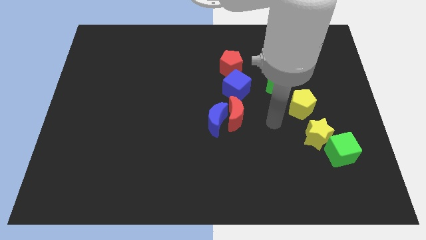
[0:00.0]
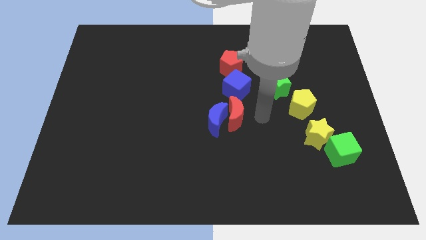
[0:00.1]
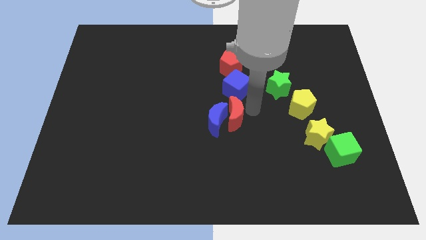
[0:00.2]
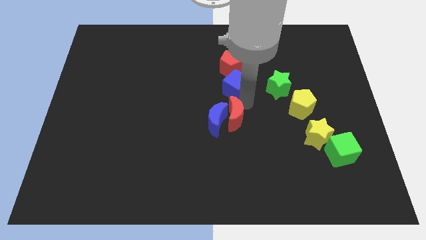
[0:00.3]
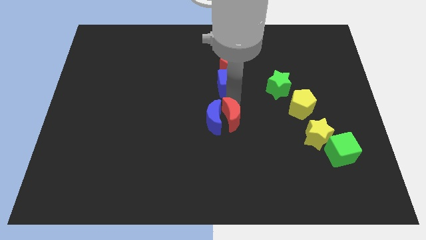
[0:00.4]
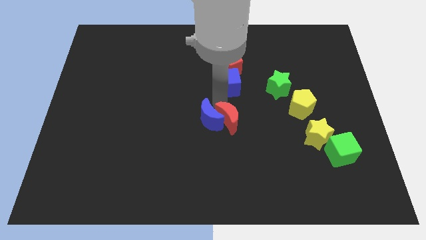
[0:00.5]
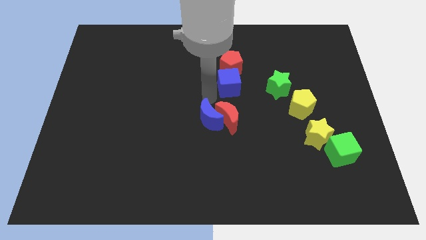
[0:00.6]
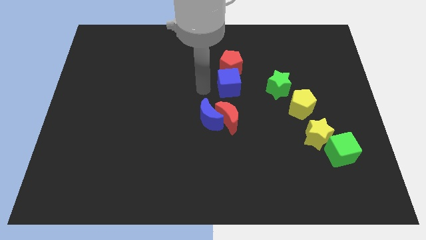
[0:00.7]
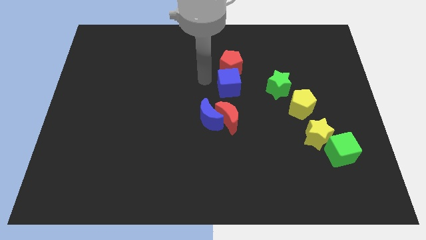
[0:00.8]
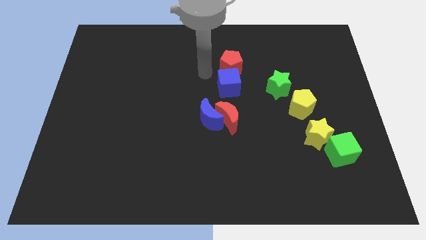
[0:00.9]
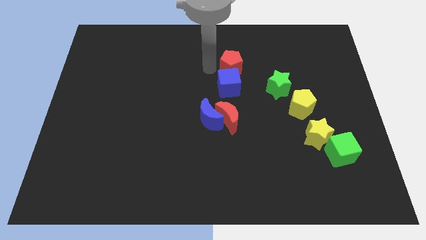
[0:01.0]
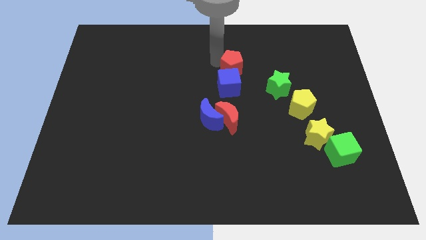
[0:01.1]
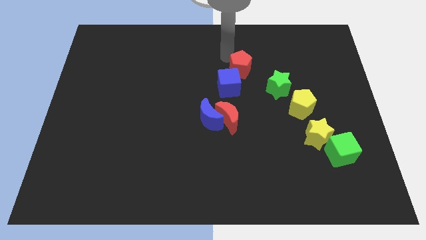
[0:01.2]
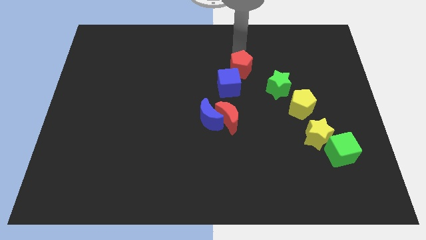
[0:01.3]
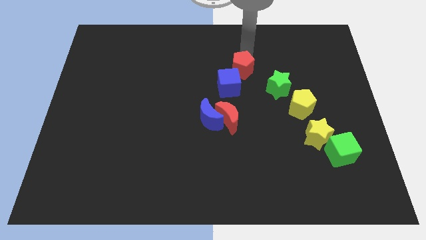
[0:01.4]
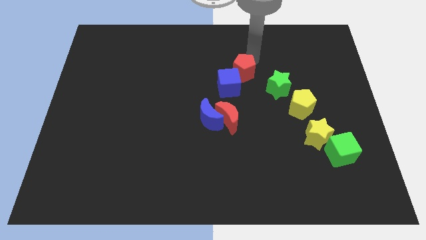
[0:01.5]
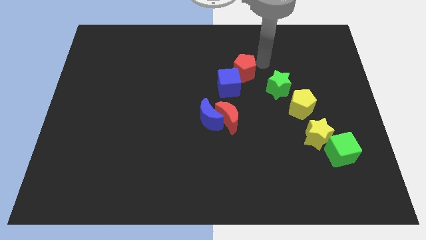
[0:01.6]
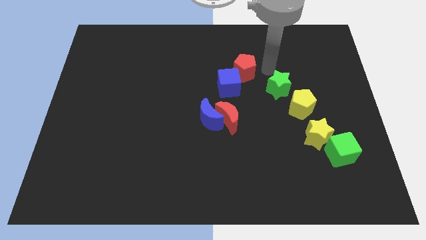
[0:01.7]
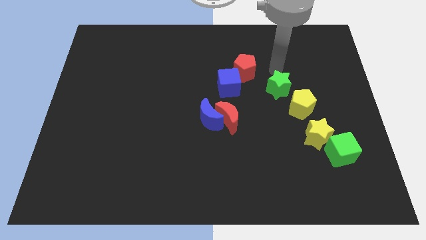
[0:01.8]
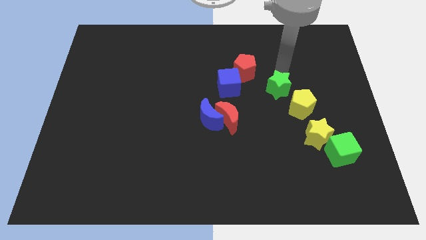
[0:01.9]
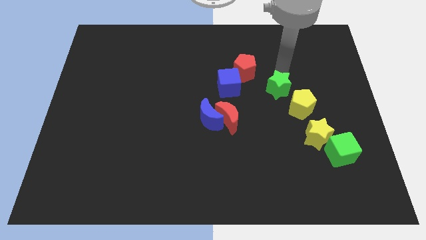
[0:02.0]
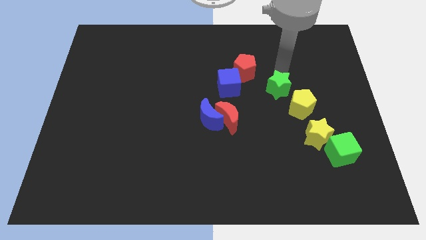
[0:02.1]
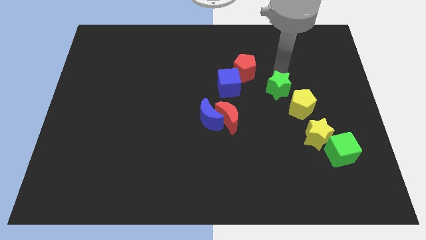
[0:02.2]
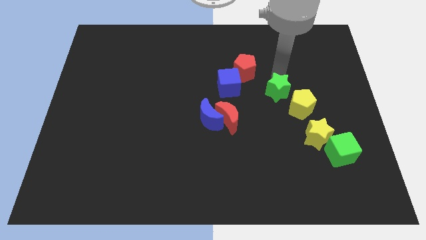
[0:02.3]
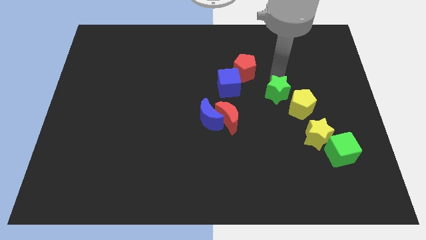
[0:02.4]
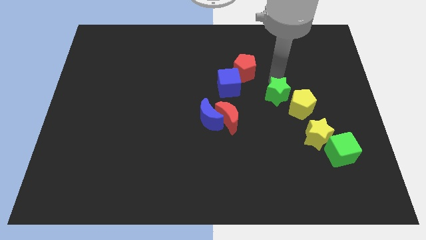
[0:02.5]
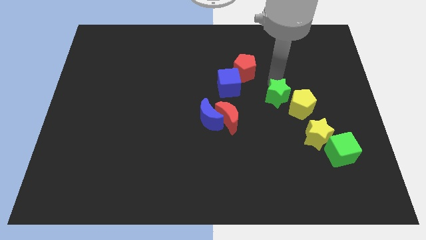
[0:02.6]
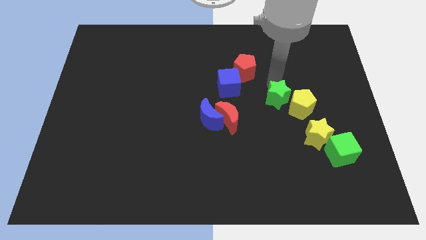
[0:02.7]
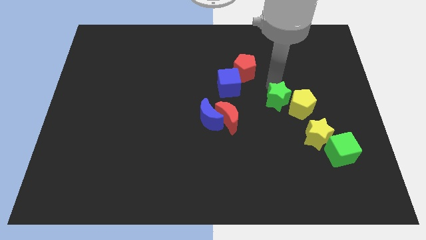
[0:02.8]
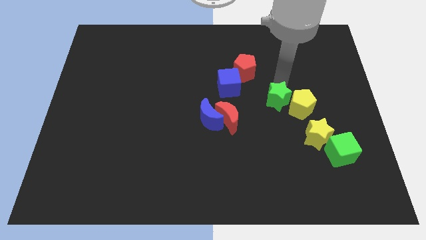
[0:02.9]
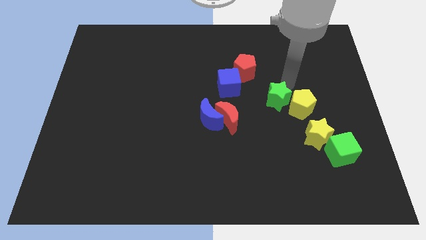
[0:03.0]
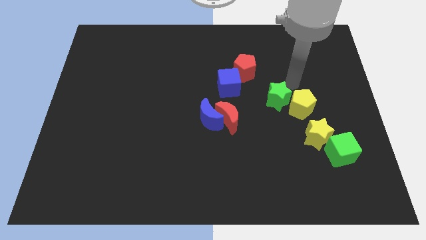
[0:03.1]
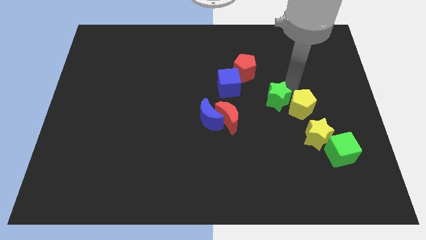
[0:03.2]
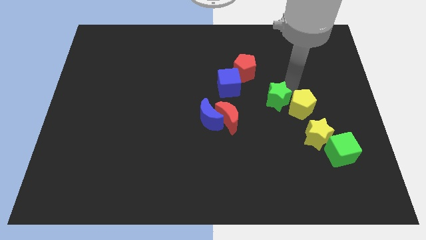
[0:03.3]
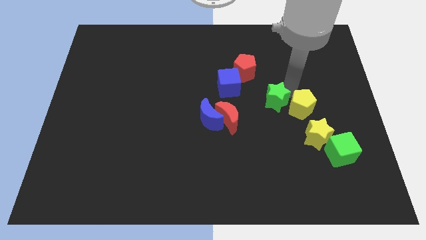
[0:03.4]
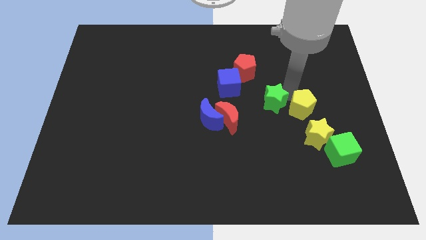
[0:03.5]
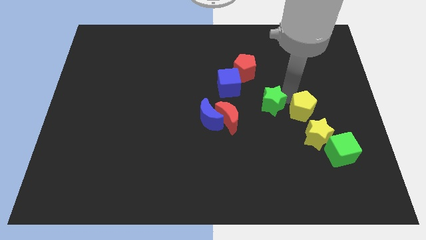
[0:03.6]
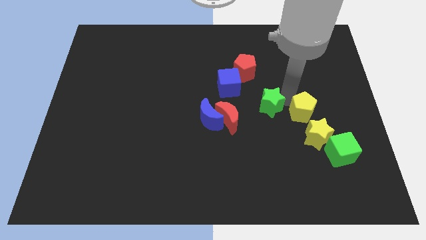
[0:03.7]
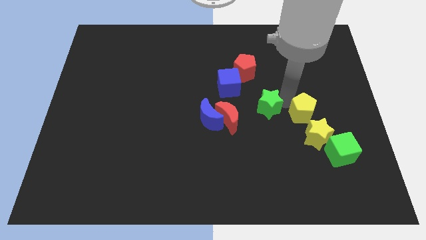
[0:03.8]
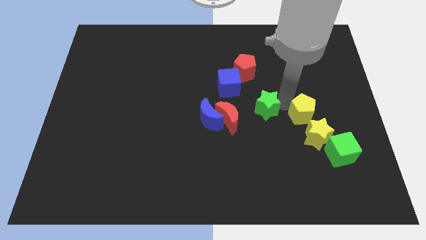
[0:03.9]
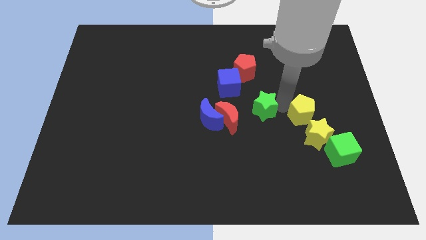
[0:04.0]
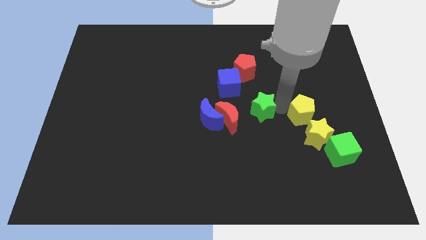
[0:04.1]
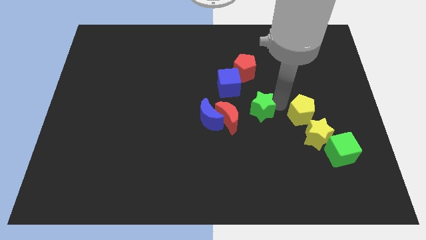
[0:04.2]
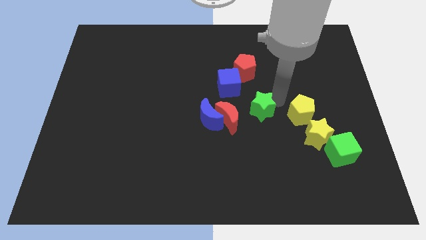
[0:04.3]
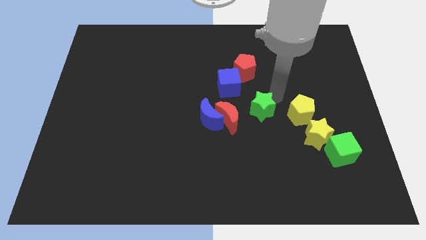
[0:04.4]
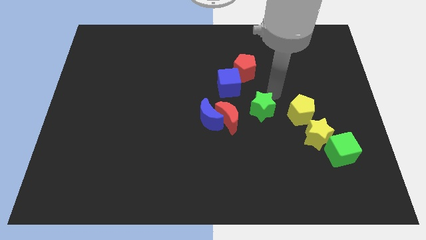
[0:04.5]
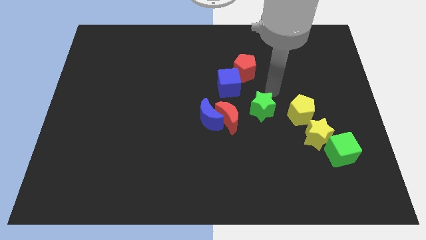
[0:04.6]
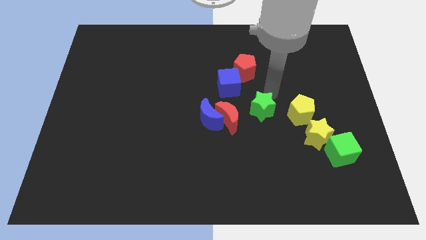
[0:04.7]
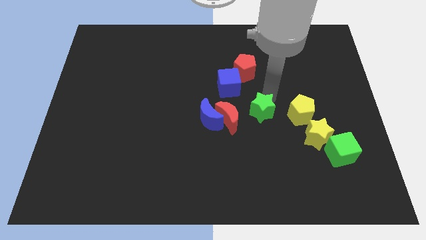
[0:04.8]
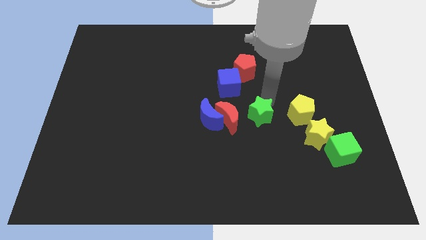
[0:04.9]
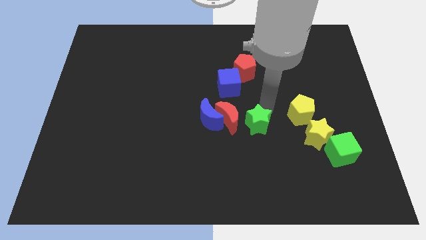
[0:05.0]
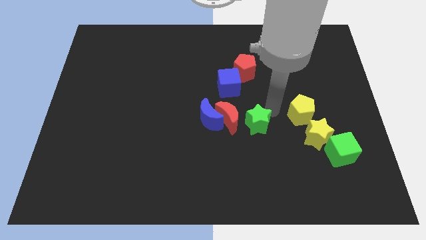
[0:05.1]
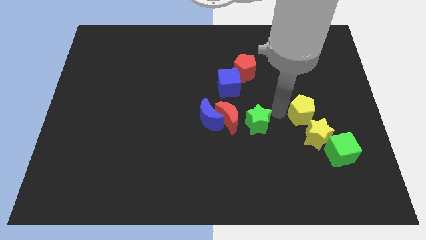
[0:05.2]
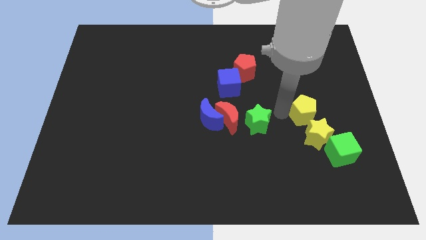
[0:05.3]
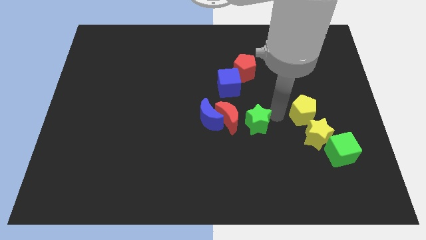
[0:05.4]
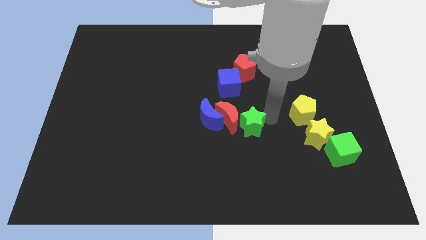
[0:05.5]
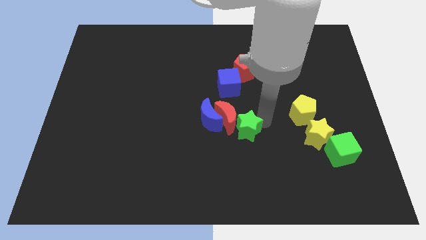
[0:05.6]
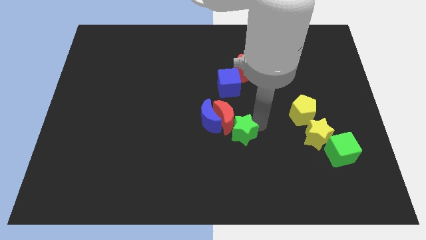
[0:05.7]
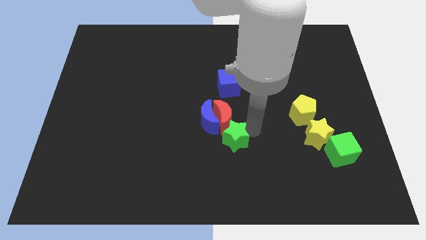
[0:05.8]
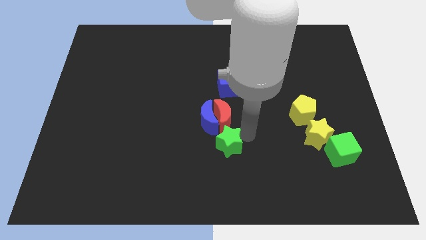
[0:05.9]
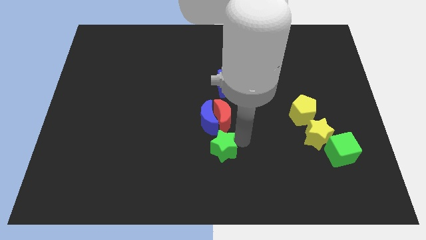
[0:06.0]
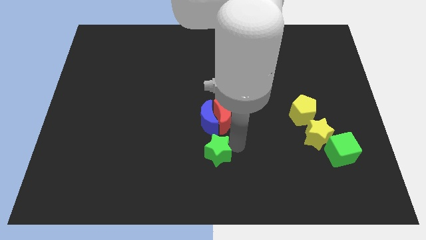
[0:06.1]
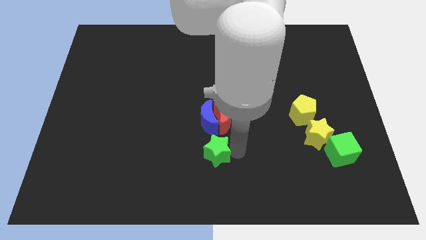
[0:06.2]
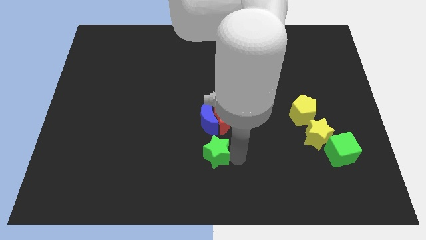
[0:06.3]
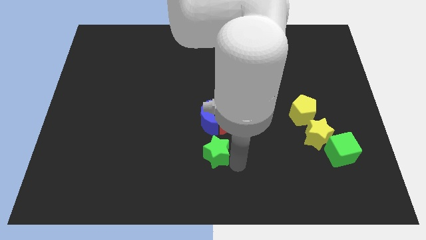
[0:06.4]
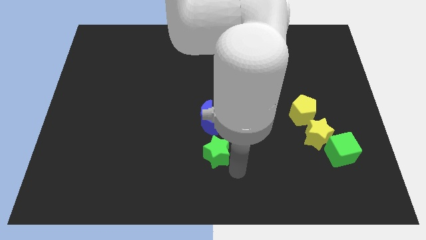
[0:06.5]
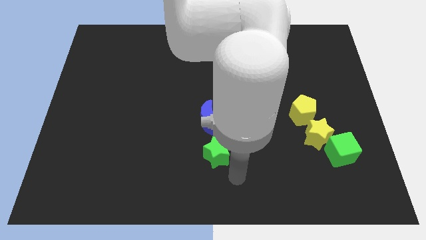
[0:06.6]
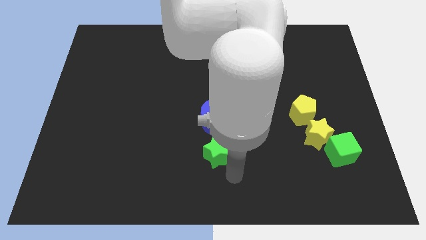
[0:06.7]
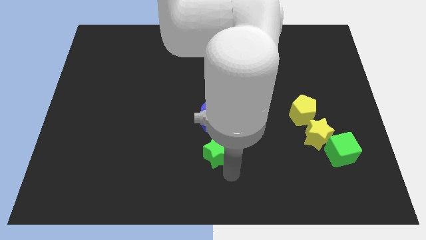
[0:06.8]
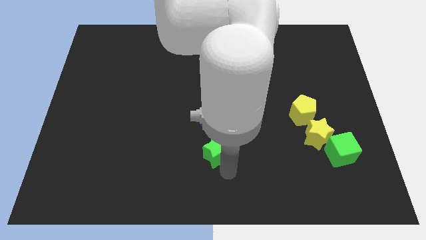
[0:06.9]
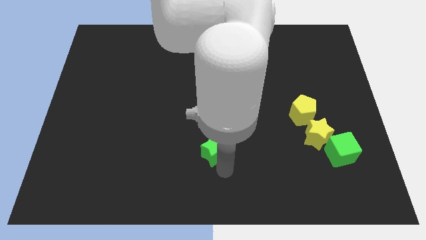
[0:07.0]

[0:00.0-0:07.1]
push the green star diagonally down and to the left of the red moon

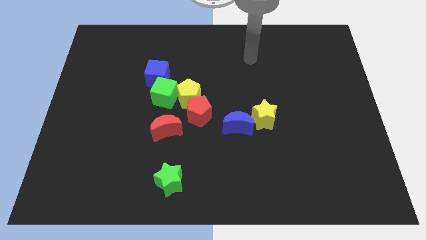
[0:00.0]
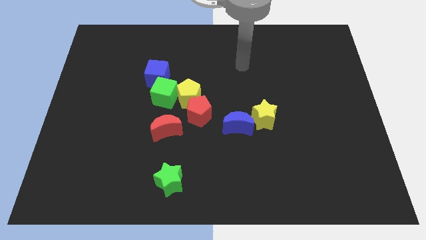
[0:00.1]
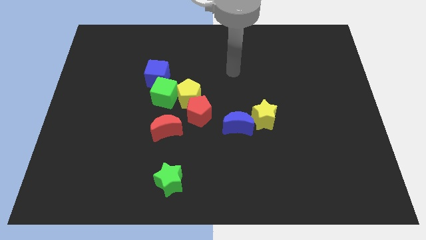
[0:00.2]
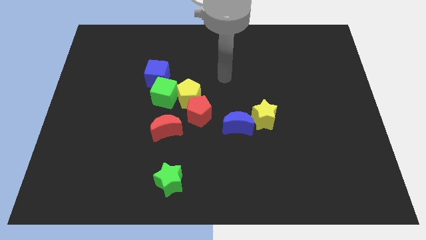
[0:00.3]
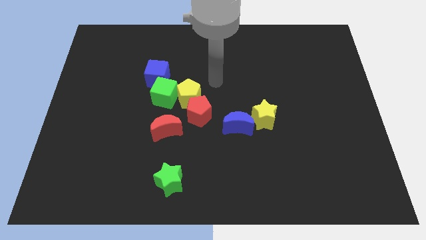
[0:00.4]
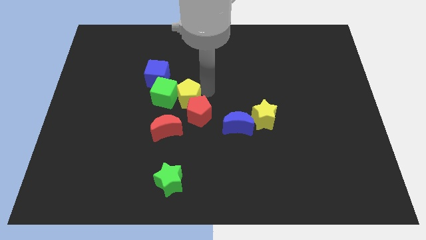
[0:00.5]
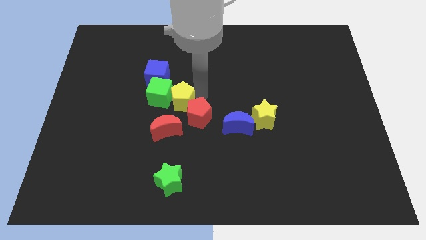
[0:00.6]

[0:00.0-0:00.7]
push the green cube diagonally down and to the left of the blue cube
